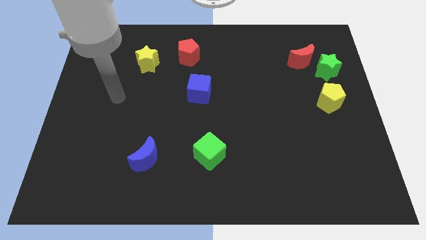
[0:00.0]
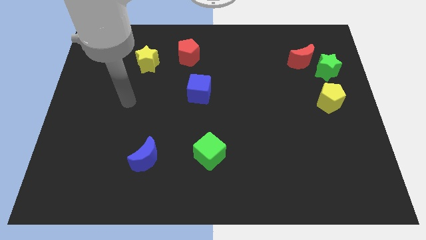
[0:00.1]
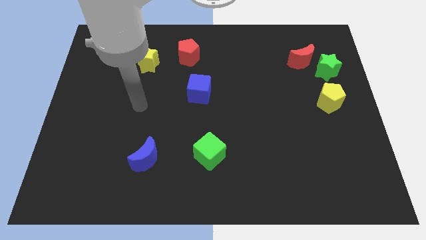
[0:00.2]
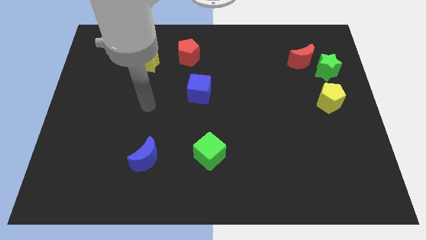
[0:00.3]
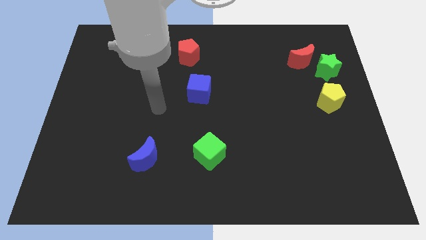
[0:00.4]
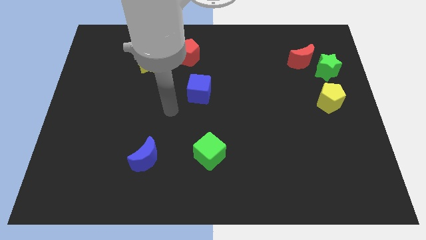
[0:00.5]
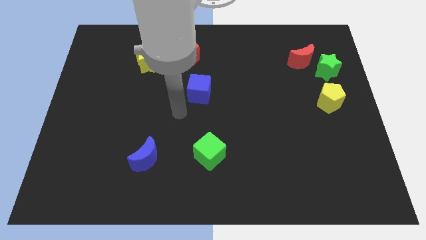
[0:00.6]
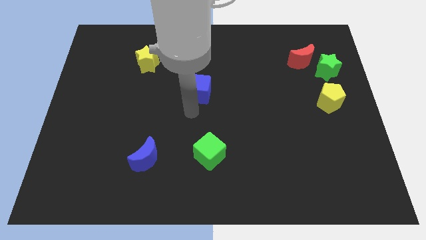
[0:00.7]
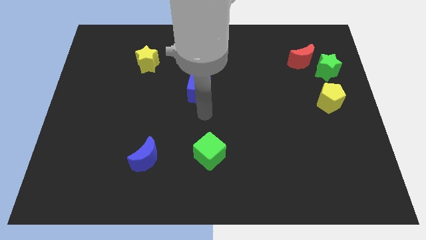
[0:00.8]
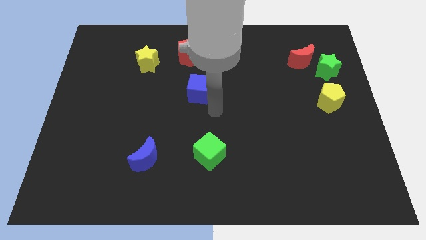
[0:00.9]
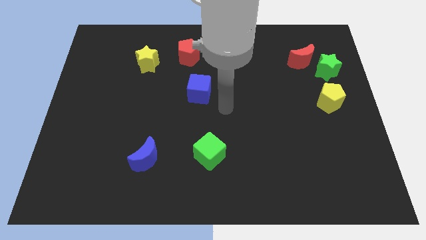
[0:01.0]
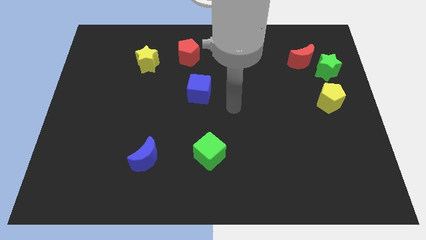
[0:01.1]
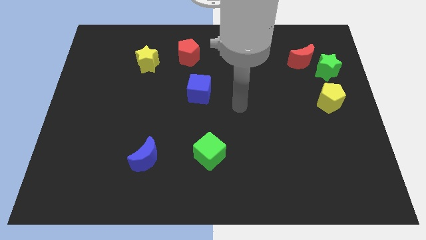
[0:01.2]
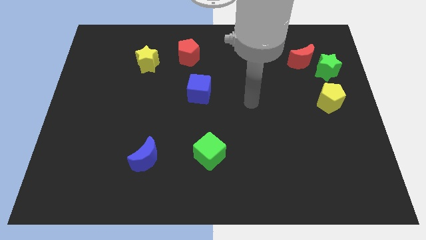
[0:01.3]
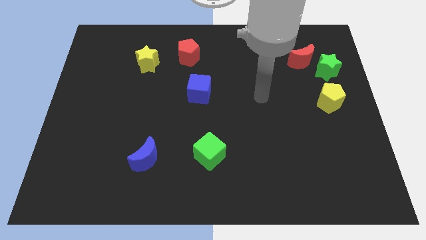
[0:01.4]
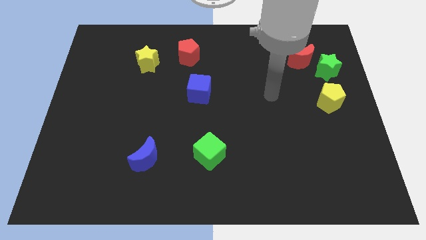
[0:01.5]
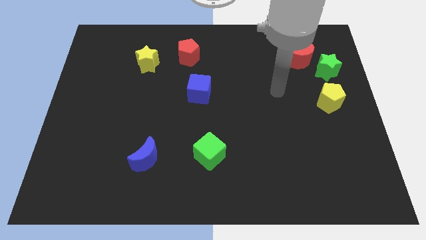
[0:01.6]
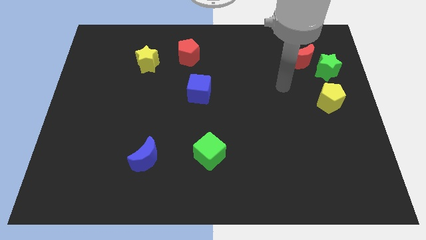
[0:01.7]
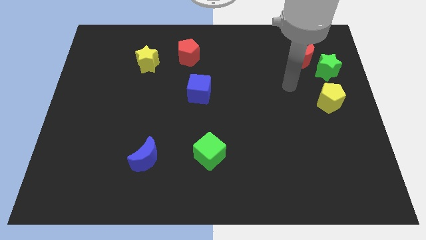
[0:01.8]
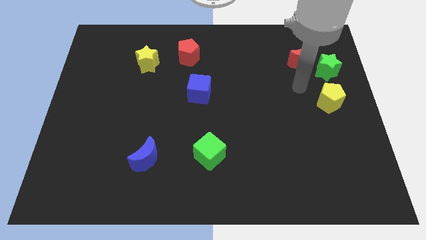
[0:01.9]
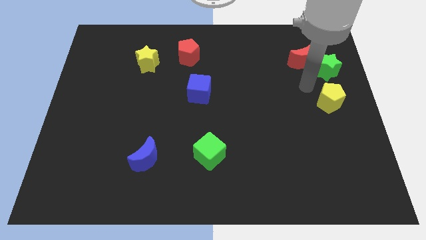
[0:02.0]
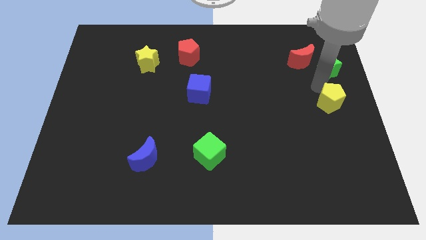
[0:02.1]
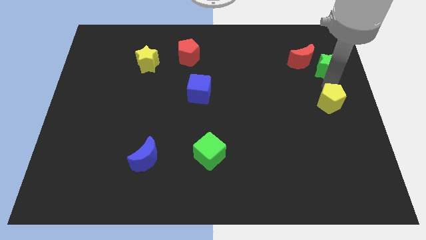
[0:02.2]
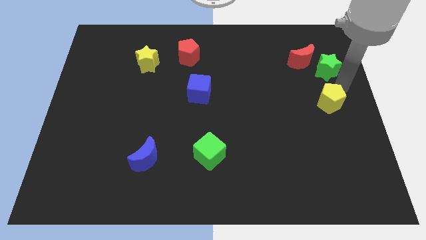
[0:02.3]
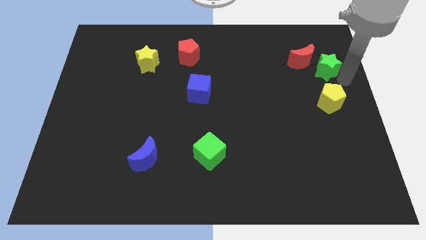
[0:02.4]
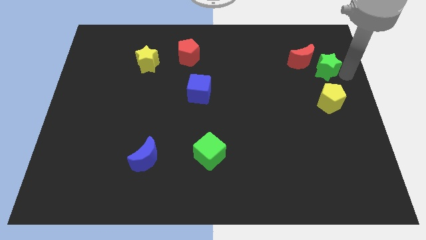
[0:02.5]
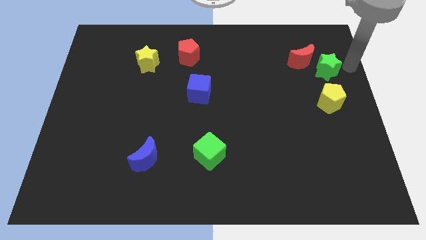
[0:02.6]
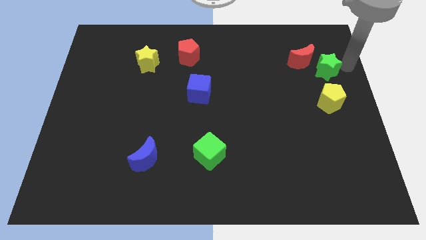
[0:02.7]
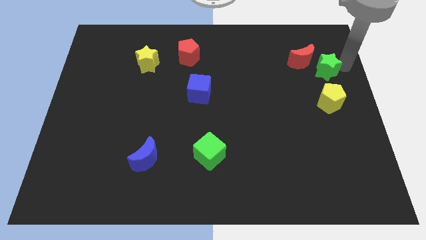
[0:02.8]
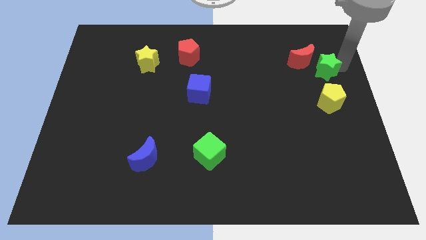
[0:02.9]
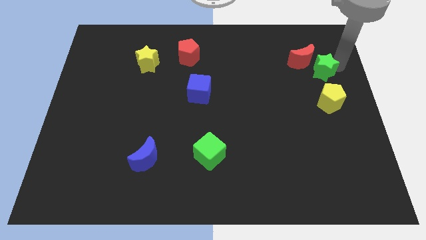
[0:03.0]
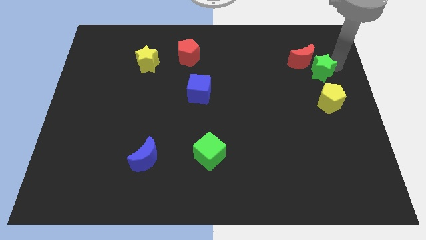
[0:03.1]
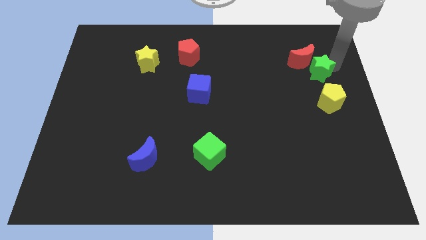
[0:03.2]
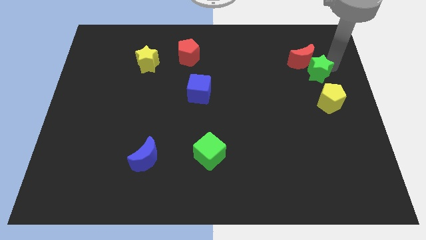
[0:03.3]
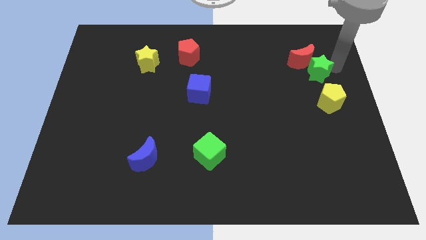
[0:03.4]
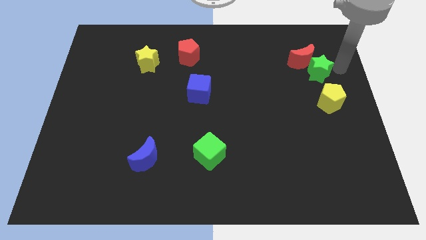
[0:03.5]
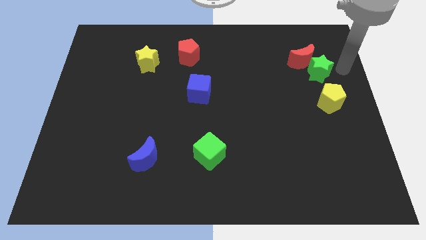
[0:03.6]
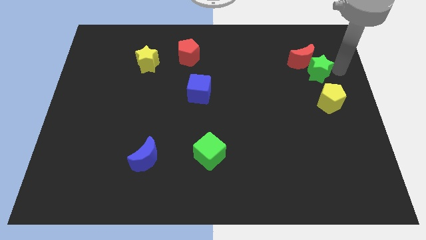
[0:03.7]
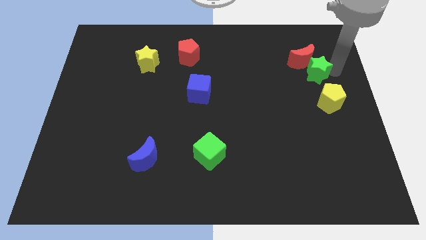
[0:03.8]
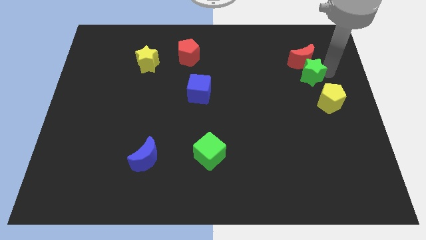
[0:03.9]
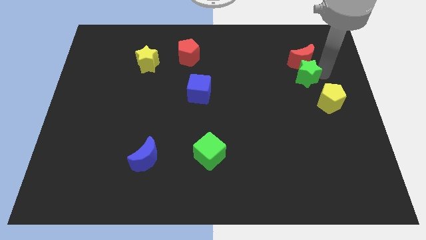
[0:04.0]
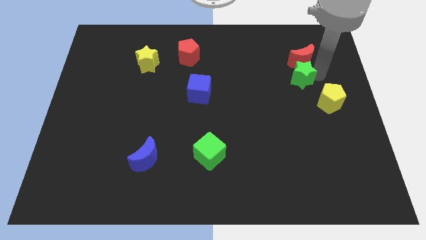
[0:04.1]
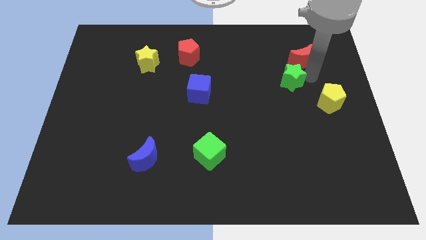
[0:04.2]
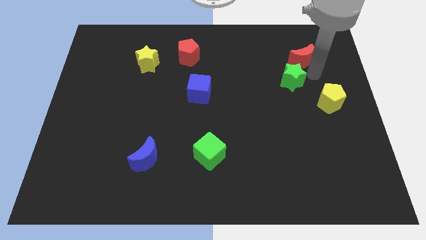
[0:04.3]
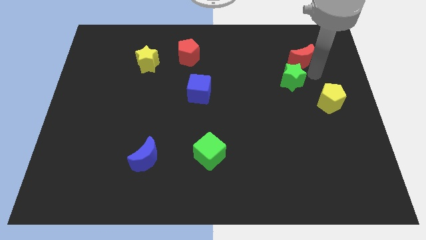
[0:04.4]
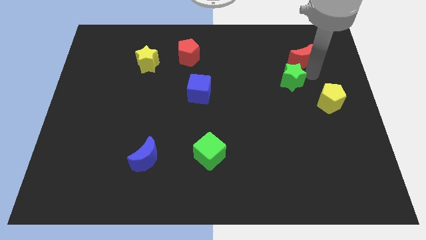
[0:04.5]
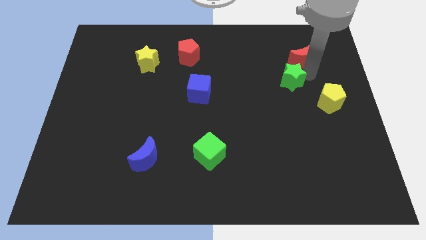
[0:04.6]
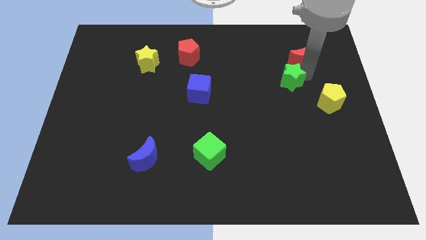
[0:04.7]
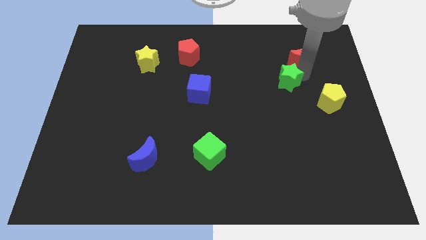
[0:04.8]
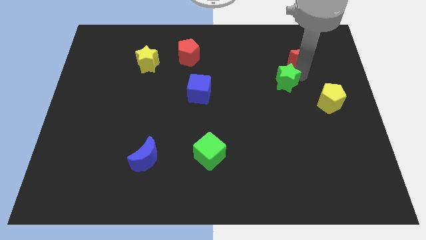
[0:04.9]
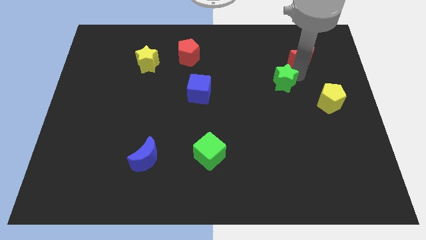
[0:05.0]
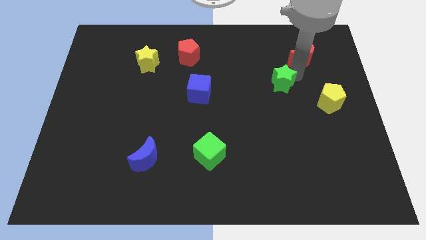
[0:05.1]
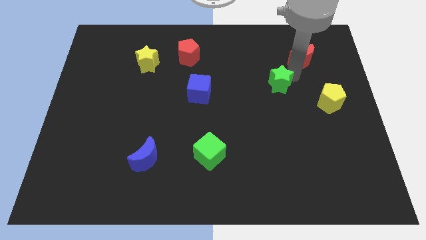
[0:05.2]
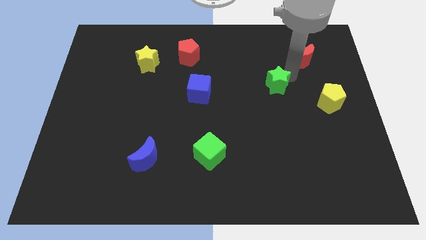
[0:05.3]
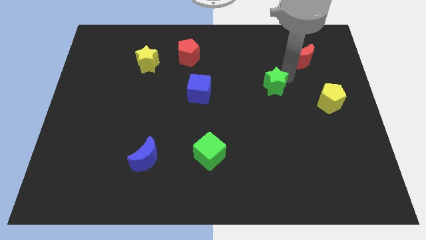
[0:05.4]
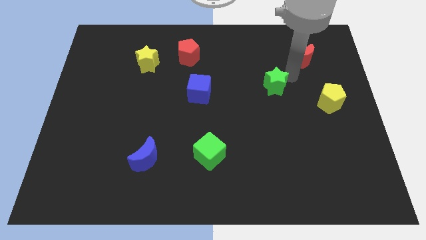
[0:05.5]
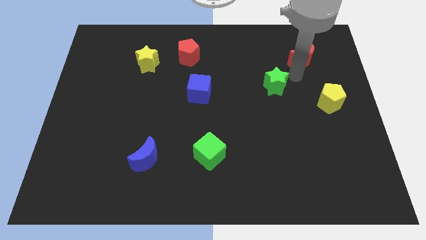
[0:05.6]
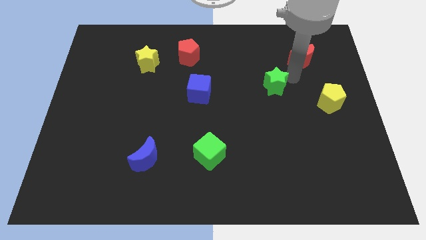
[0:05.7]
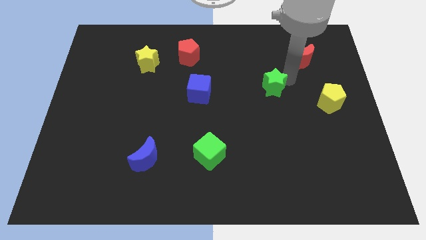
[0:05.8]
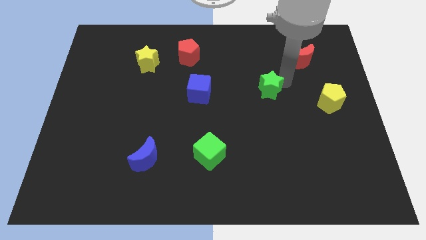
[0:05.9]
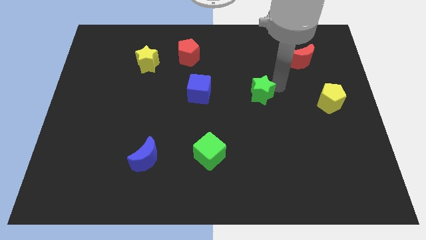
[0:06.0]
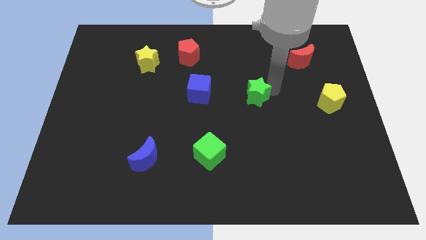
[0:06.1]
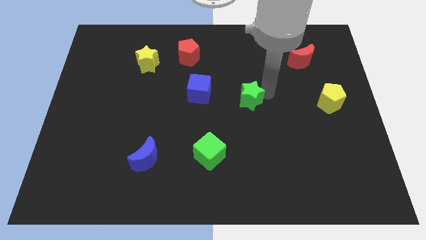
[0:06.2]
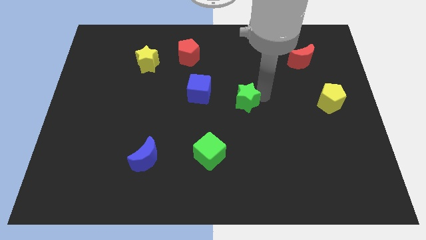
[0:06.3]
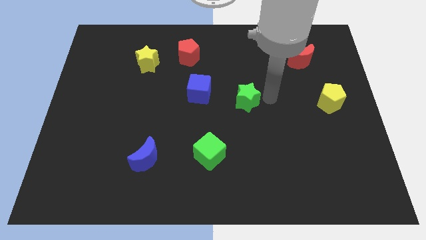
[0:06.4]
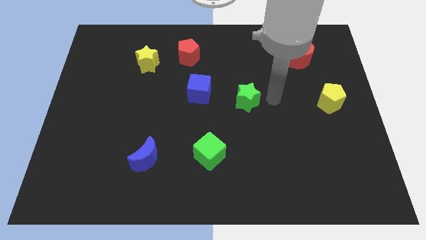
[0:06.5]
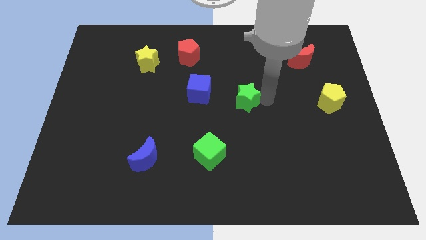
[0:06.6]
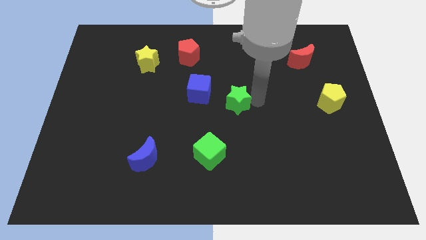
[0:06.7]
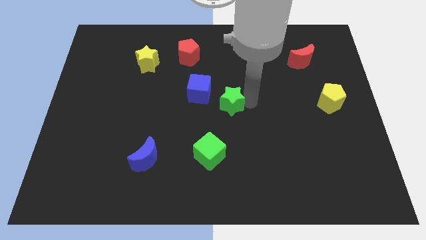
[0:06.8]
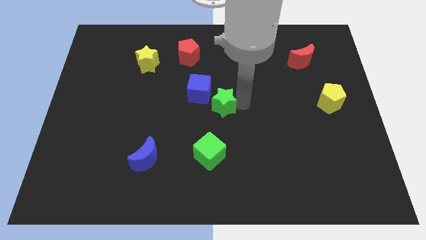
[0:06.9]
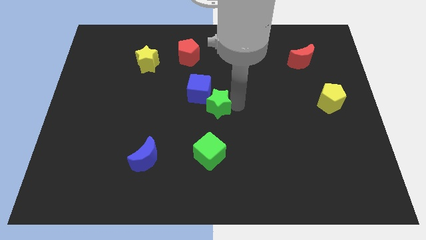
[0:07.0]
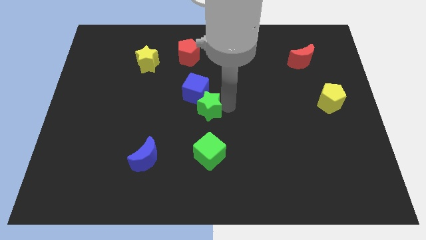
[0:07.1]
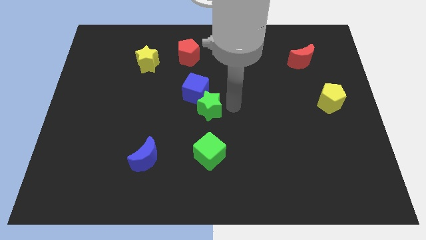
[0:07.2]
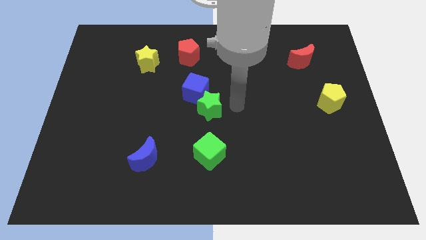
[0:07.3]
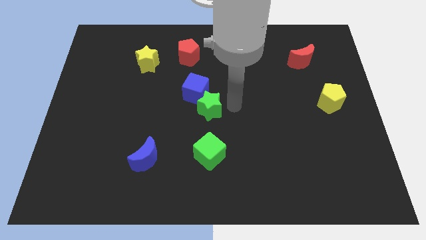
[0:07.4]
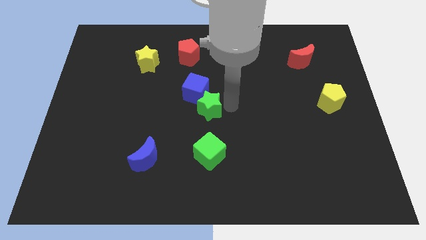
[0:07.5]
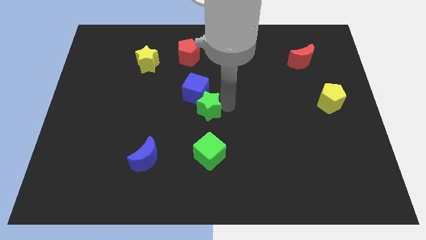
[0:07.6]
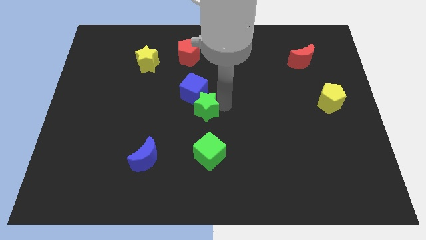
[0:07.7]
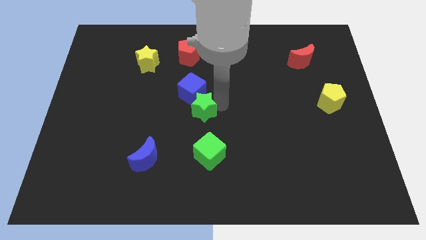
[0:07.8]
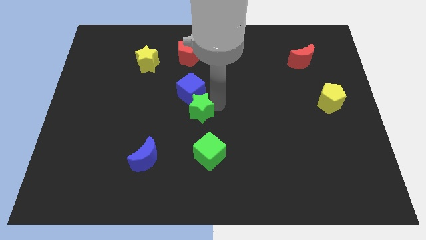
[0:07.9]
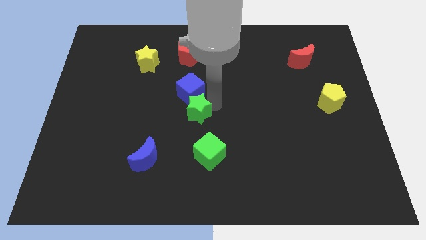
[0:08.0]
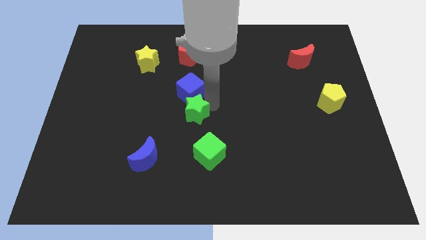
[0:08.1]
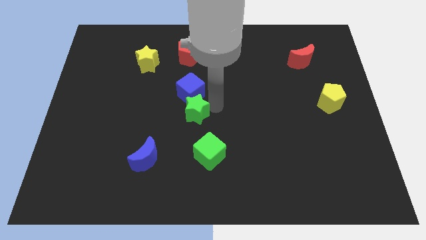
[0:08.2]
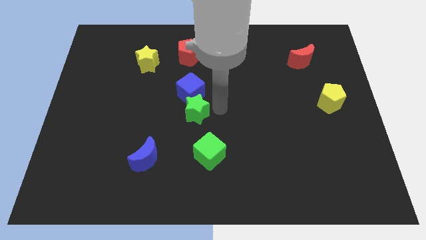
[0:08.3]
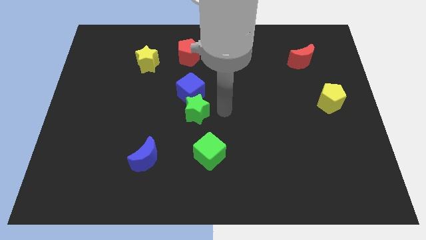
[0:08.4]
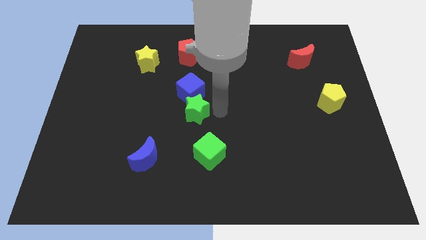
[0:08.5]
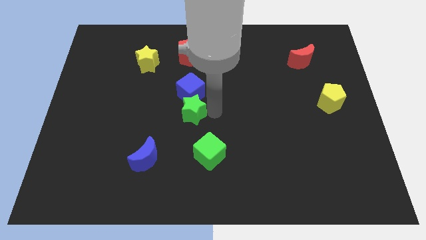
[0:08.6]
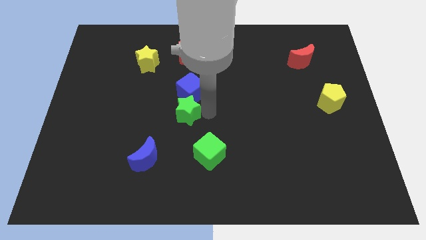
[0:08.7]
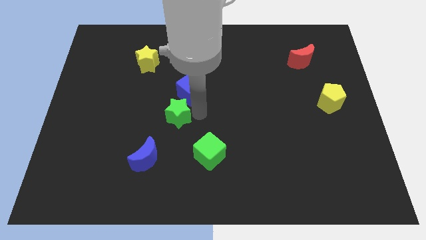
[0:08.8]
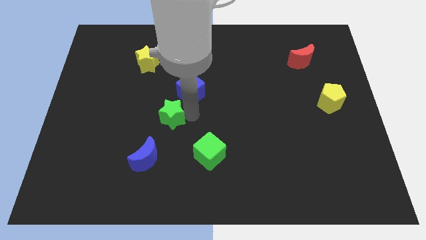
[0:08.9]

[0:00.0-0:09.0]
slide the green star above the blue moon
